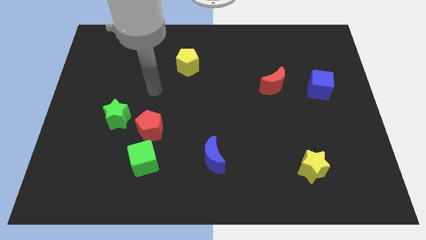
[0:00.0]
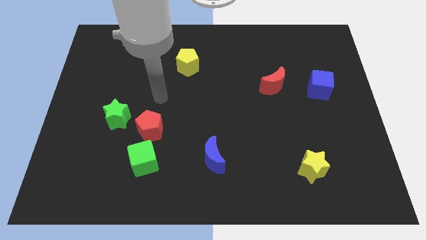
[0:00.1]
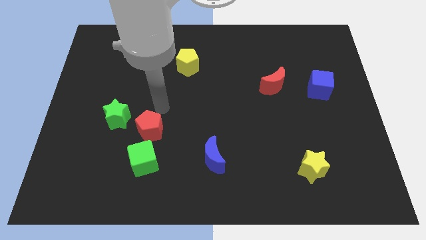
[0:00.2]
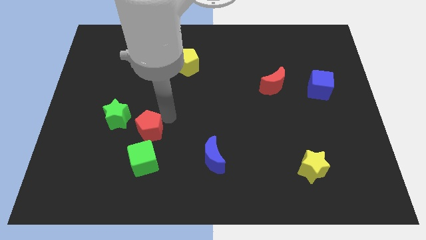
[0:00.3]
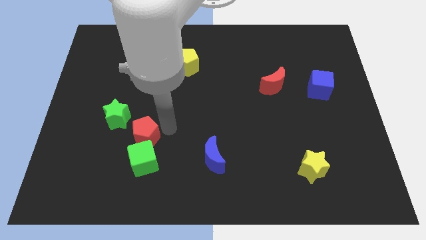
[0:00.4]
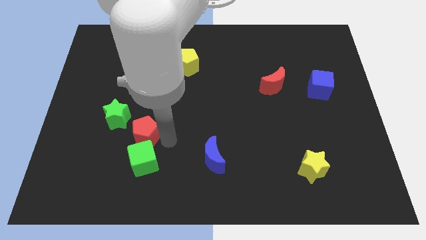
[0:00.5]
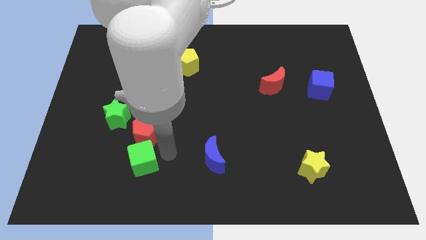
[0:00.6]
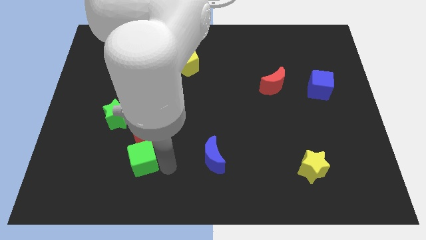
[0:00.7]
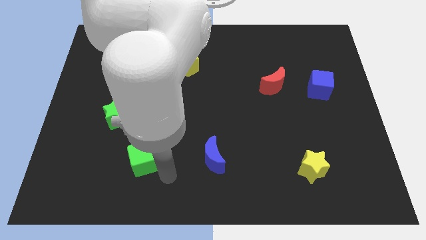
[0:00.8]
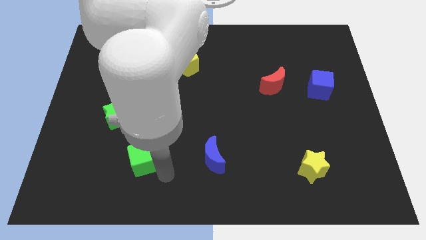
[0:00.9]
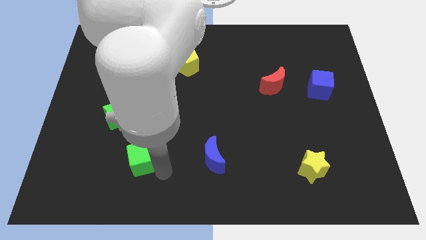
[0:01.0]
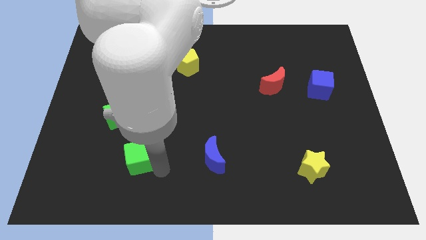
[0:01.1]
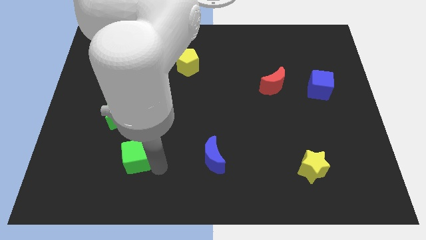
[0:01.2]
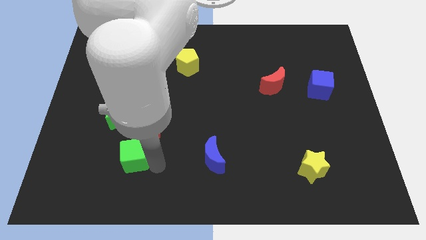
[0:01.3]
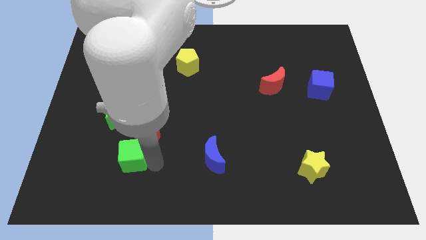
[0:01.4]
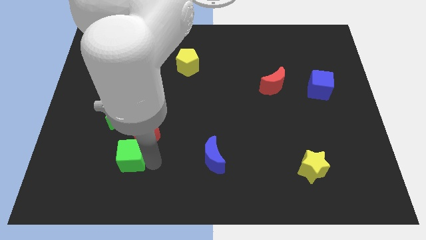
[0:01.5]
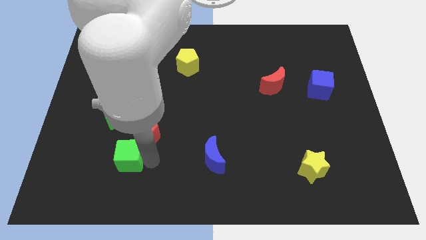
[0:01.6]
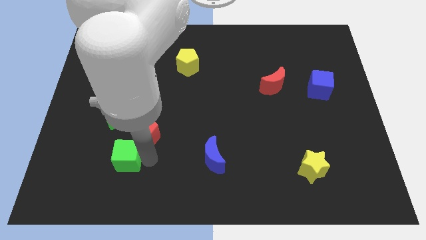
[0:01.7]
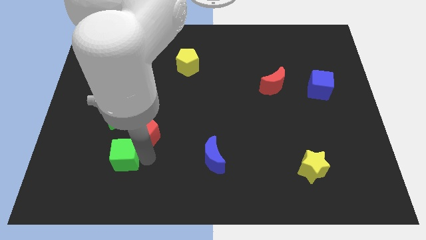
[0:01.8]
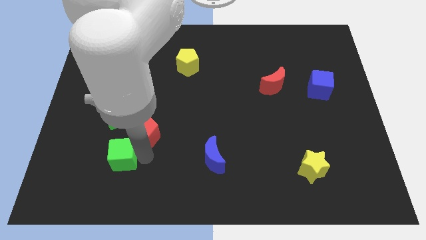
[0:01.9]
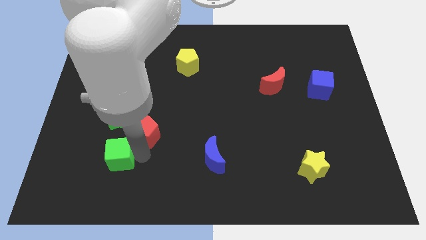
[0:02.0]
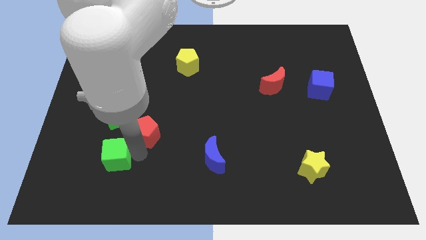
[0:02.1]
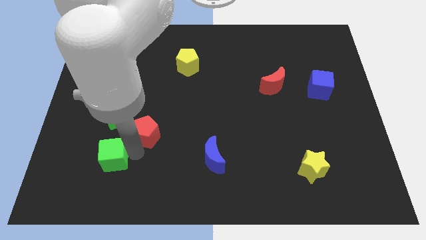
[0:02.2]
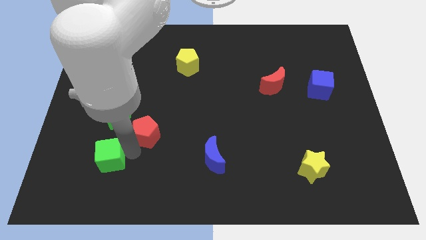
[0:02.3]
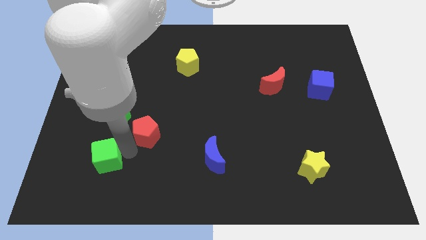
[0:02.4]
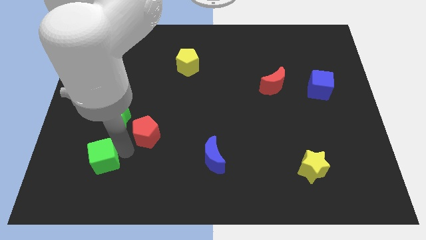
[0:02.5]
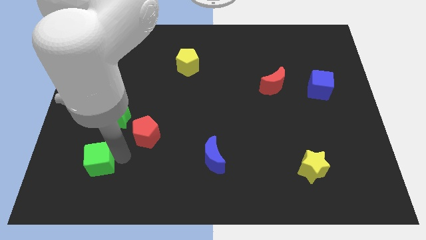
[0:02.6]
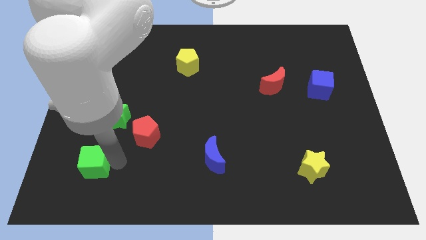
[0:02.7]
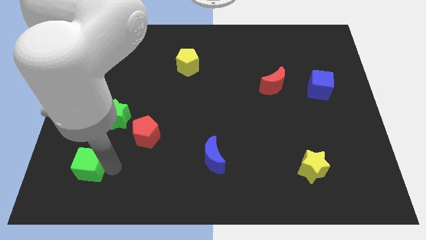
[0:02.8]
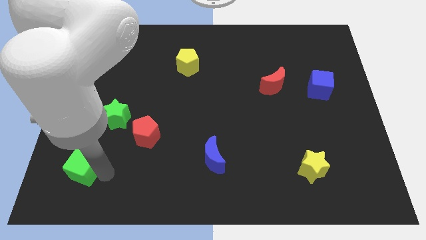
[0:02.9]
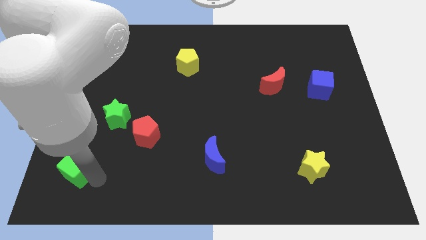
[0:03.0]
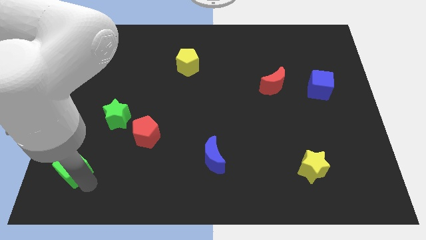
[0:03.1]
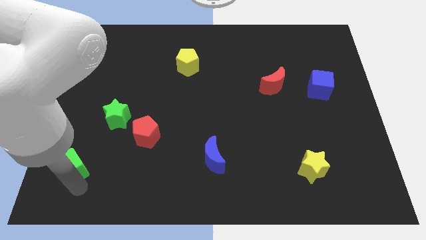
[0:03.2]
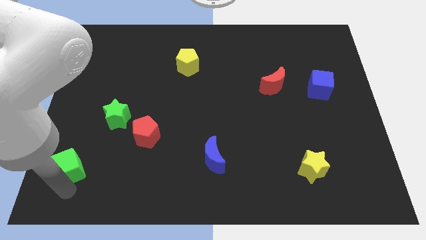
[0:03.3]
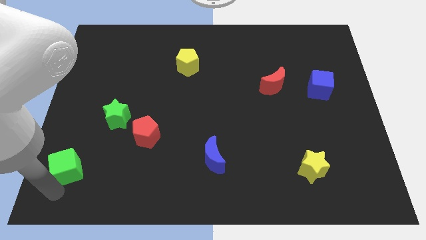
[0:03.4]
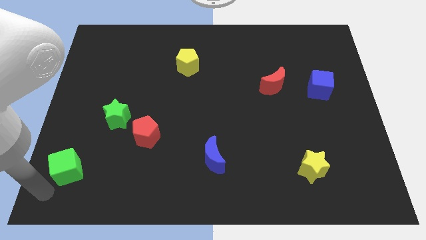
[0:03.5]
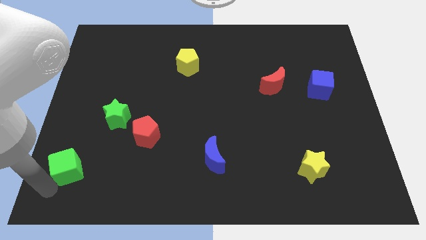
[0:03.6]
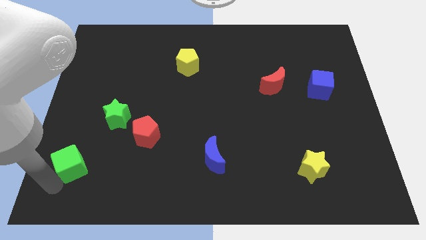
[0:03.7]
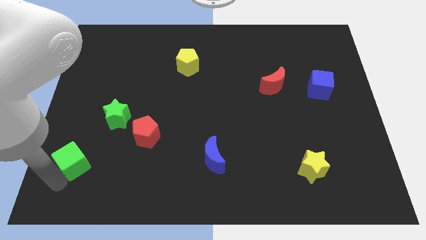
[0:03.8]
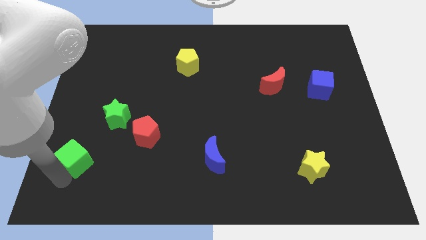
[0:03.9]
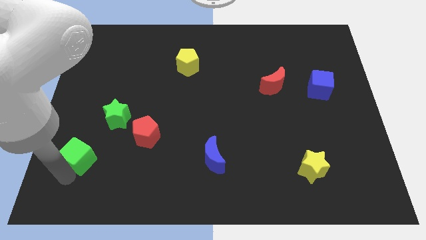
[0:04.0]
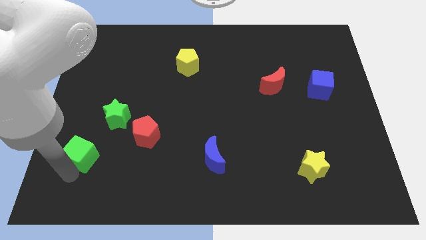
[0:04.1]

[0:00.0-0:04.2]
move the green cube a little bit upwards and to the left diagonally

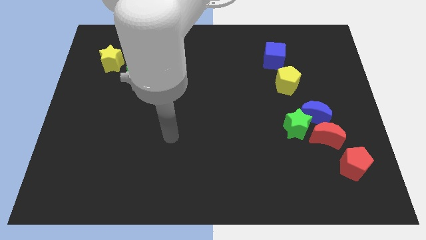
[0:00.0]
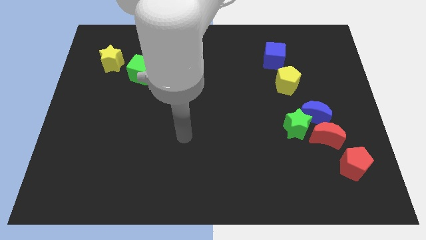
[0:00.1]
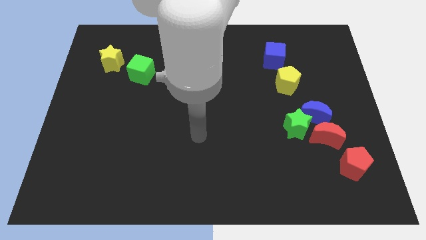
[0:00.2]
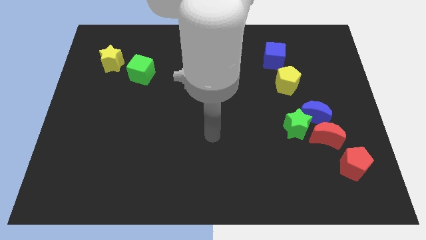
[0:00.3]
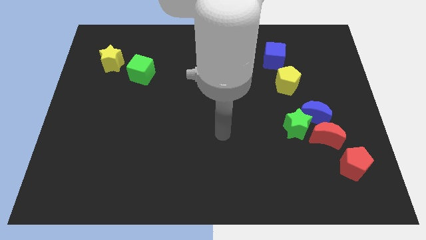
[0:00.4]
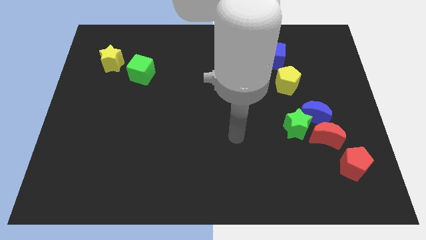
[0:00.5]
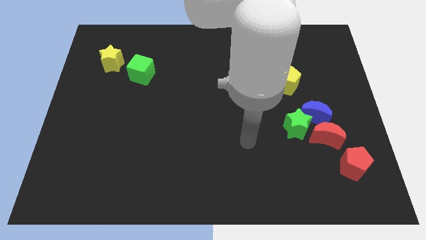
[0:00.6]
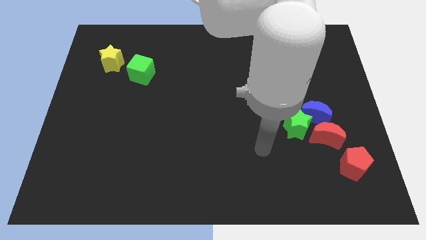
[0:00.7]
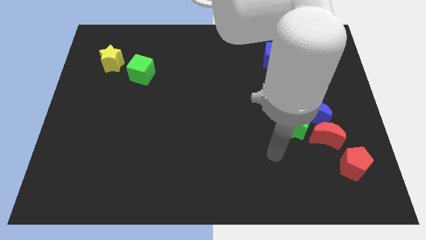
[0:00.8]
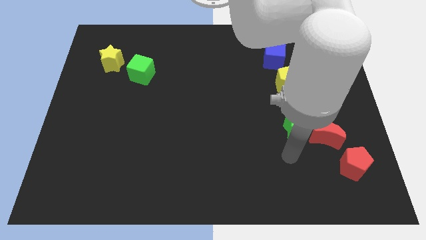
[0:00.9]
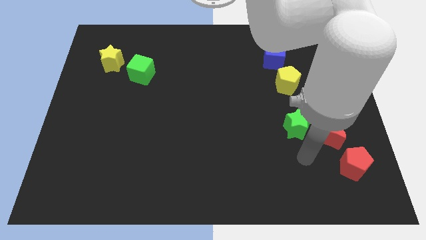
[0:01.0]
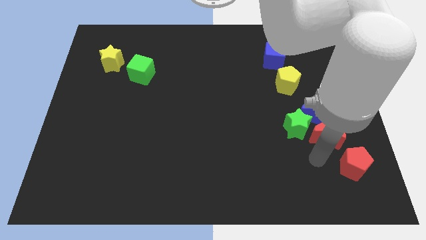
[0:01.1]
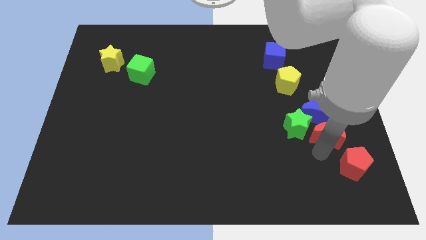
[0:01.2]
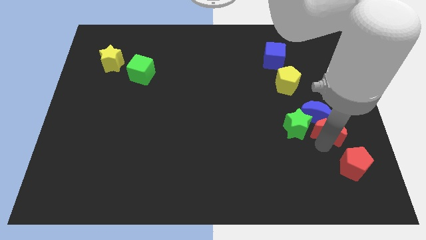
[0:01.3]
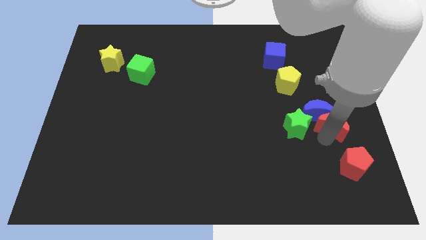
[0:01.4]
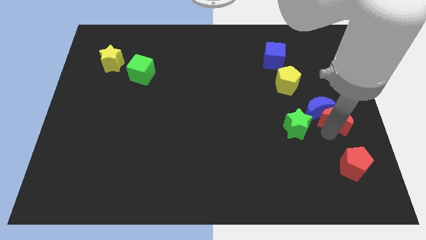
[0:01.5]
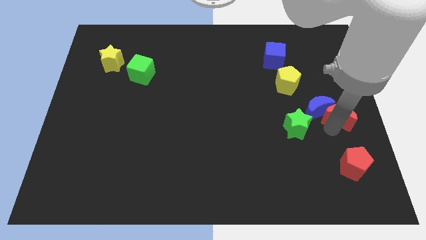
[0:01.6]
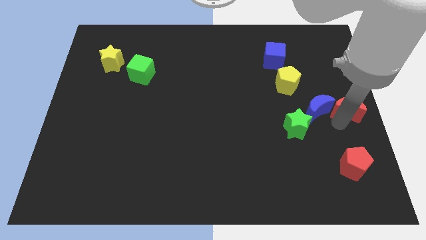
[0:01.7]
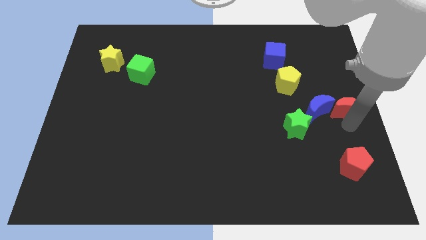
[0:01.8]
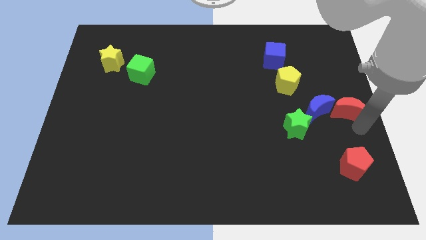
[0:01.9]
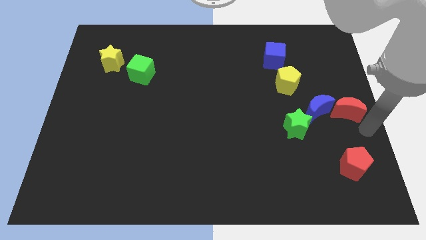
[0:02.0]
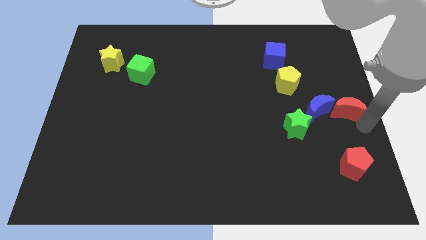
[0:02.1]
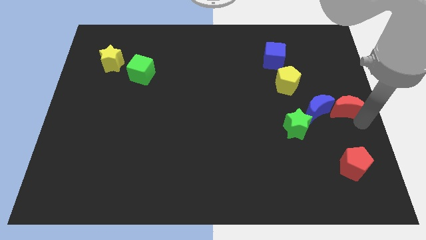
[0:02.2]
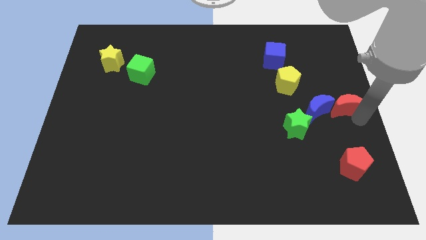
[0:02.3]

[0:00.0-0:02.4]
push the red moon a little up

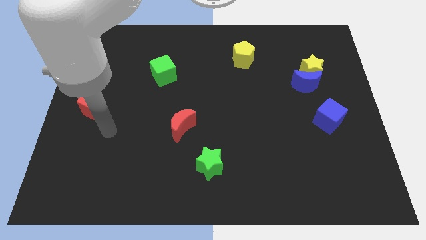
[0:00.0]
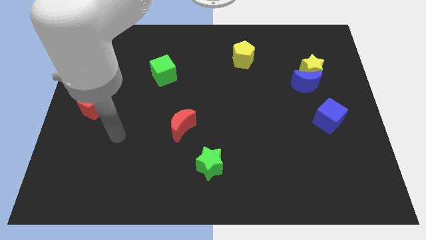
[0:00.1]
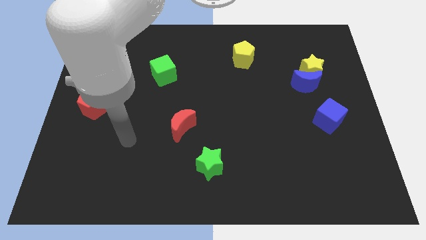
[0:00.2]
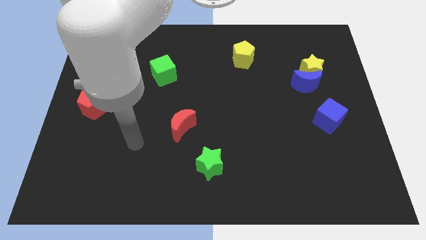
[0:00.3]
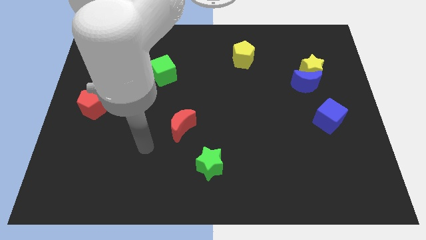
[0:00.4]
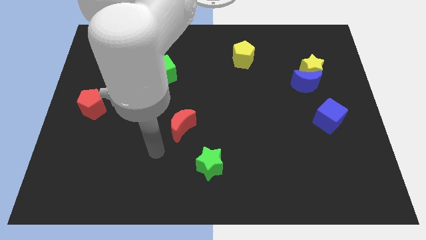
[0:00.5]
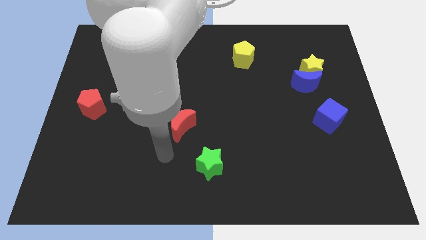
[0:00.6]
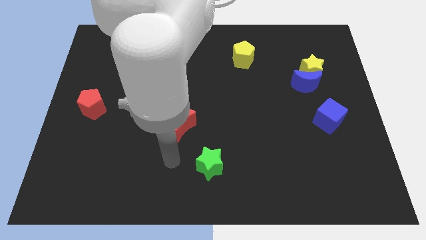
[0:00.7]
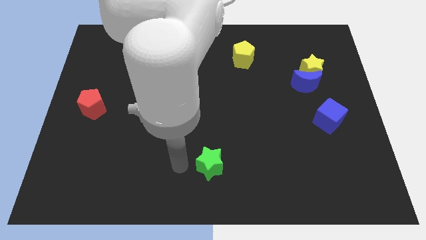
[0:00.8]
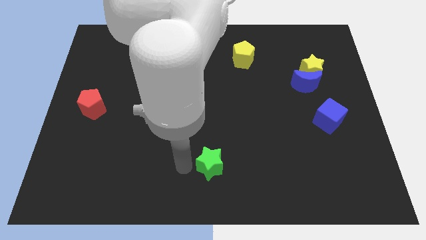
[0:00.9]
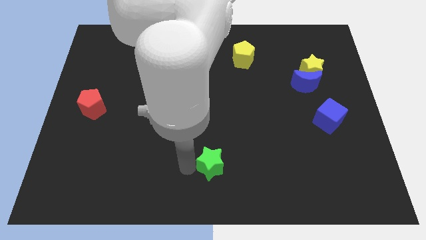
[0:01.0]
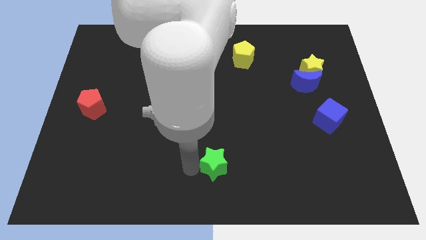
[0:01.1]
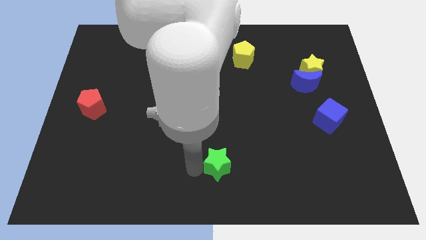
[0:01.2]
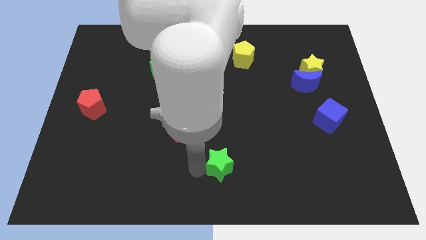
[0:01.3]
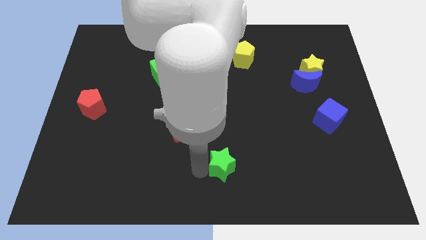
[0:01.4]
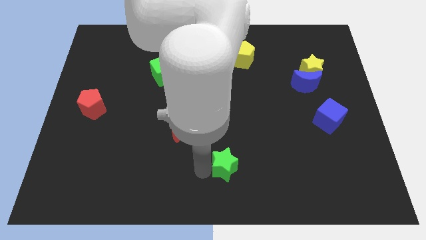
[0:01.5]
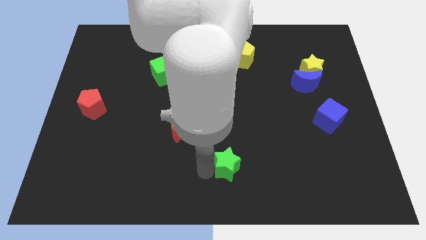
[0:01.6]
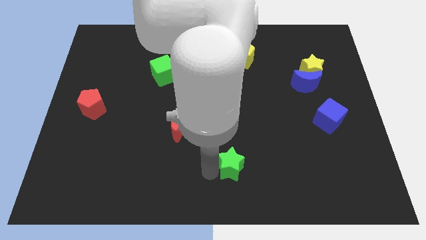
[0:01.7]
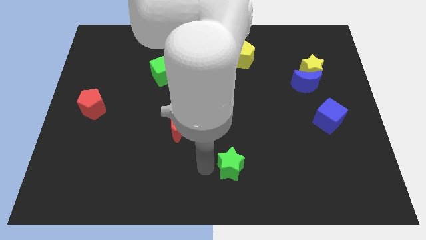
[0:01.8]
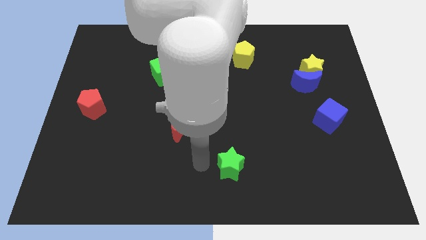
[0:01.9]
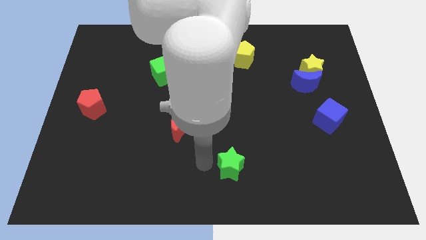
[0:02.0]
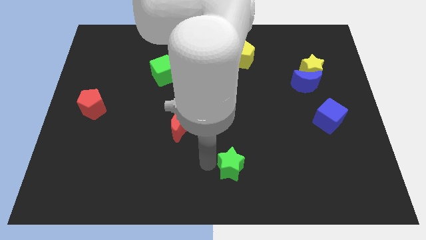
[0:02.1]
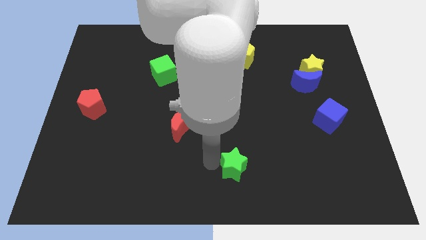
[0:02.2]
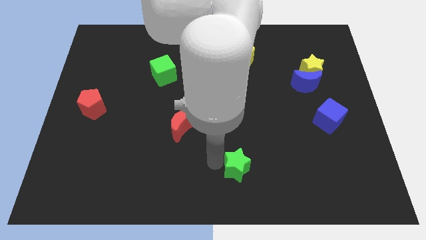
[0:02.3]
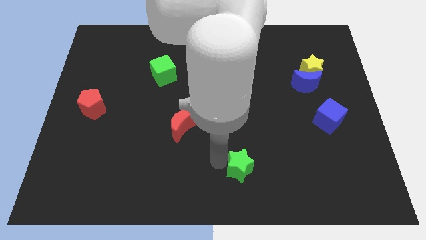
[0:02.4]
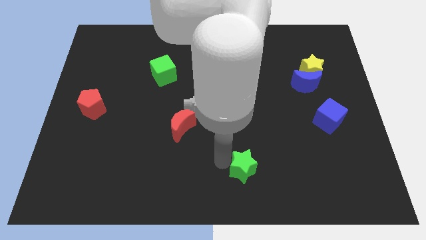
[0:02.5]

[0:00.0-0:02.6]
slide the green star to the right a little
